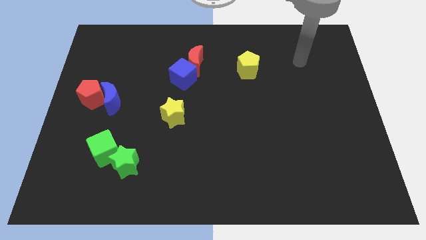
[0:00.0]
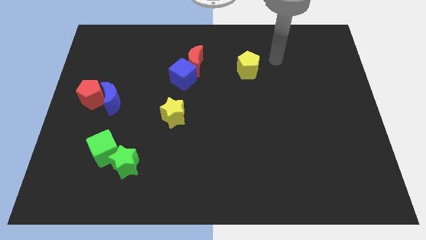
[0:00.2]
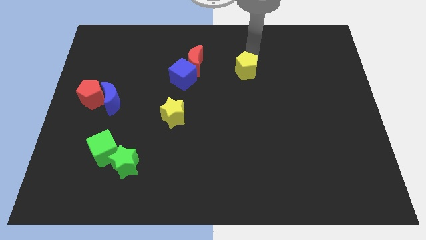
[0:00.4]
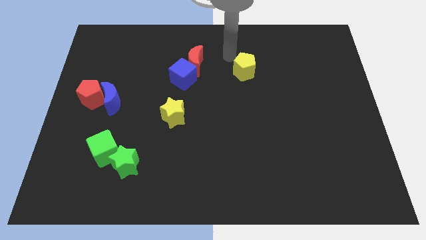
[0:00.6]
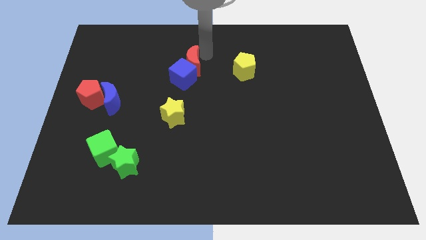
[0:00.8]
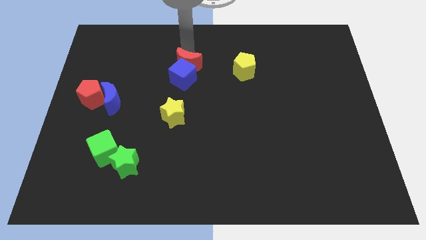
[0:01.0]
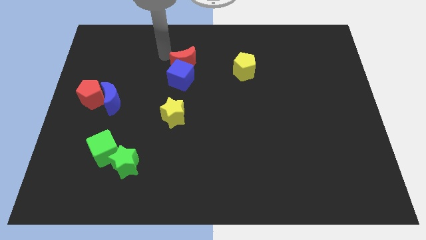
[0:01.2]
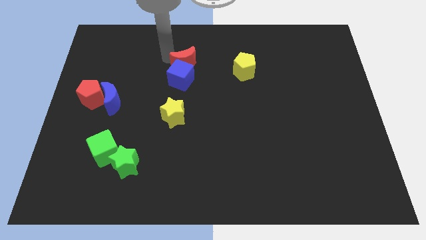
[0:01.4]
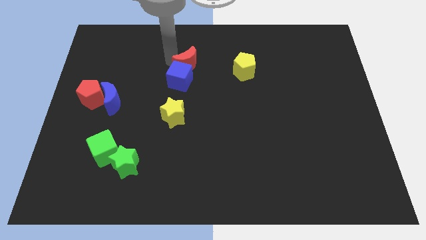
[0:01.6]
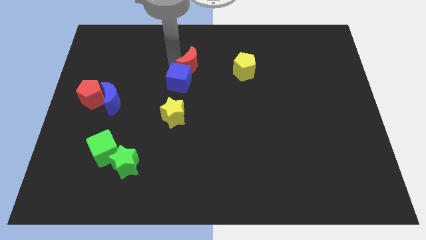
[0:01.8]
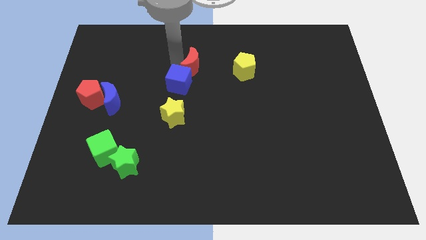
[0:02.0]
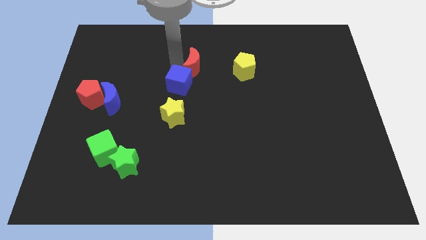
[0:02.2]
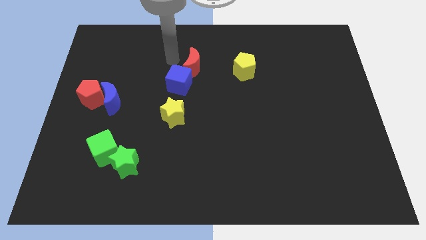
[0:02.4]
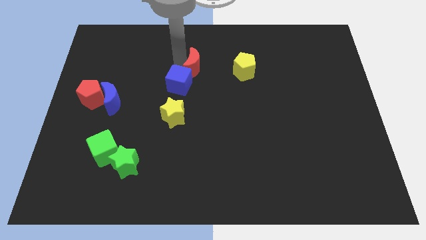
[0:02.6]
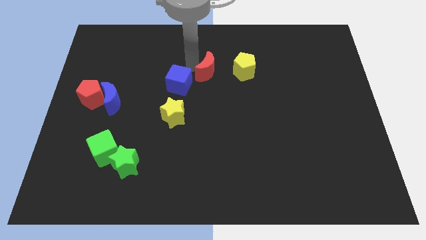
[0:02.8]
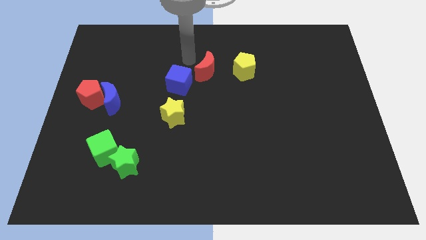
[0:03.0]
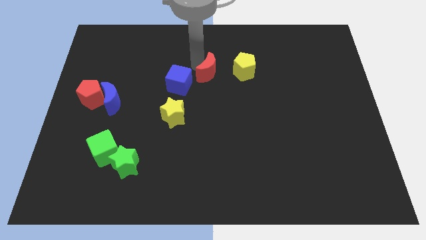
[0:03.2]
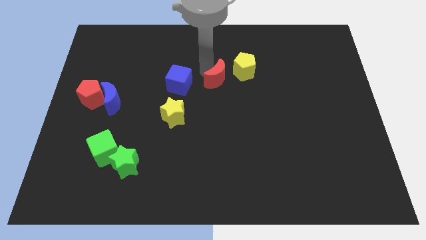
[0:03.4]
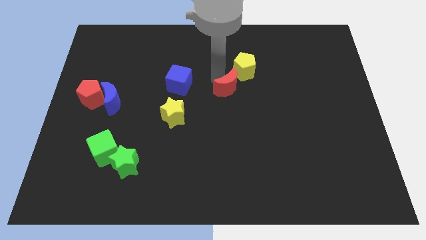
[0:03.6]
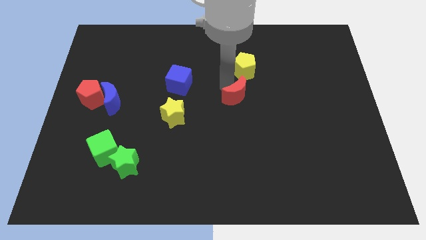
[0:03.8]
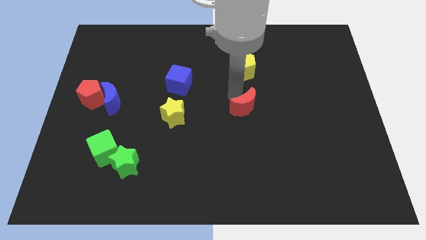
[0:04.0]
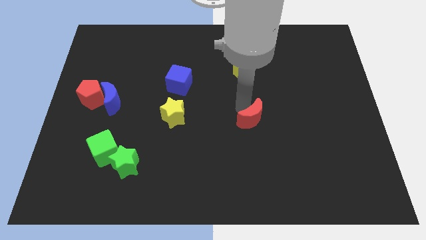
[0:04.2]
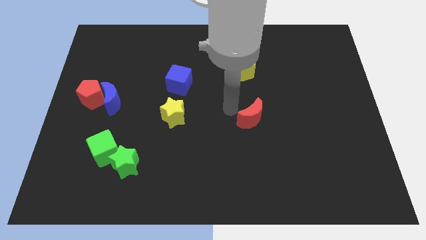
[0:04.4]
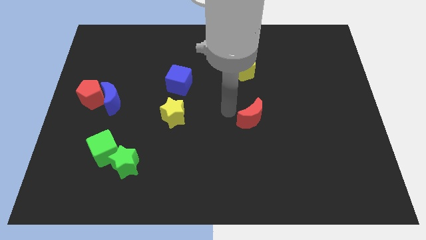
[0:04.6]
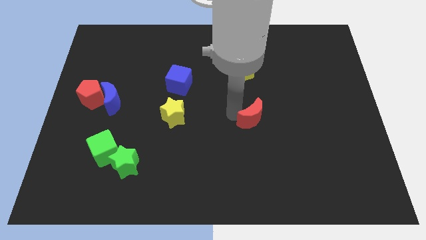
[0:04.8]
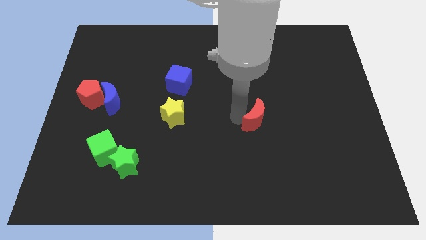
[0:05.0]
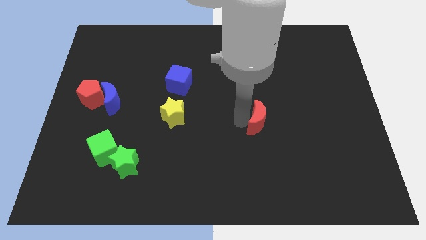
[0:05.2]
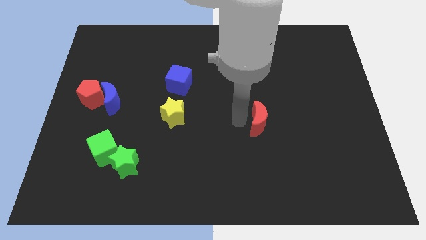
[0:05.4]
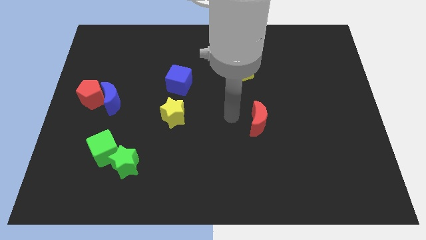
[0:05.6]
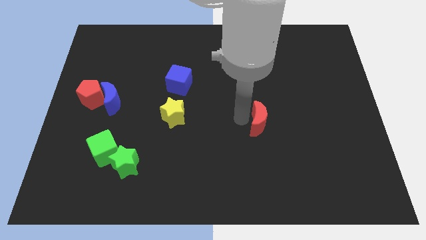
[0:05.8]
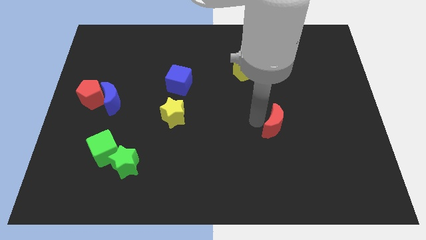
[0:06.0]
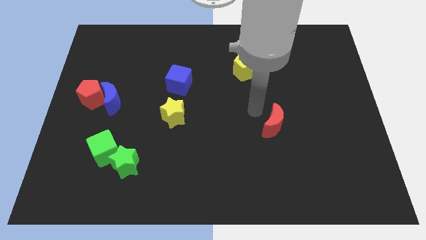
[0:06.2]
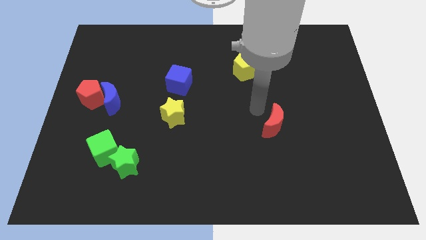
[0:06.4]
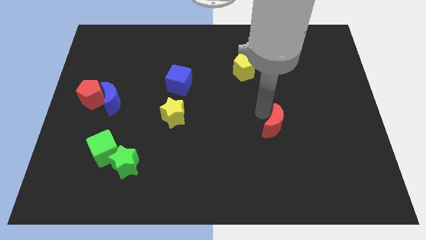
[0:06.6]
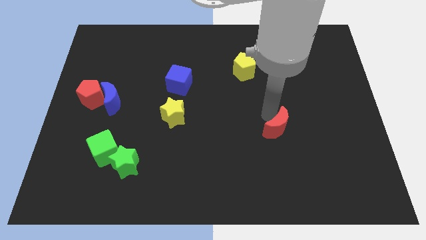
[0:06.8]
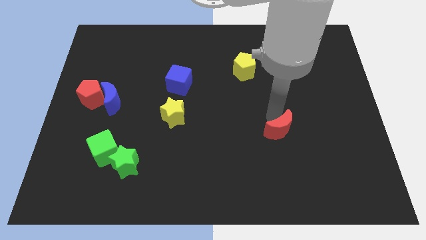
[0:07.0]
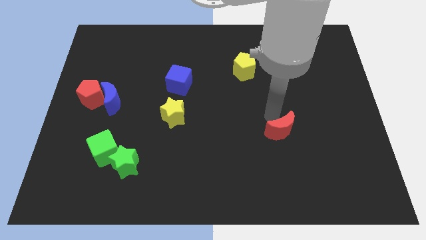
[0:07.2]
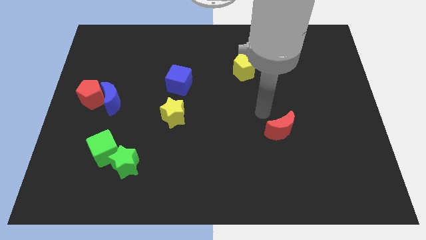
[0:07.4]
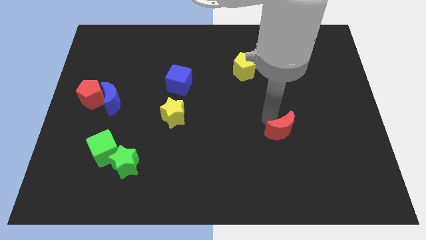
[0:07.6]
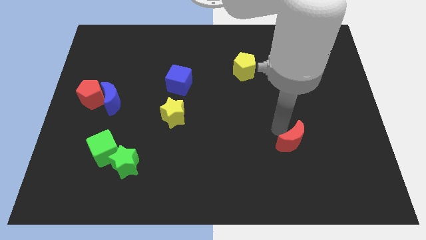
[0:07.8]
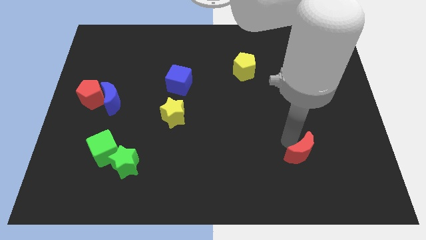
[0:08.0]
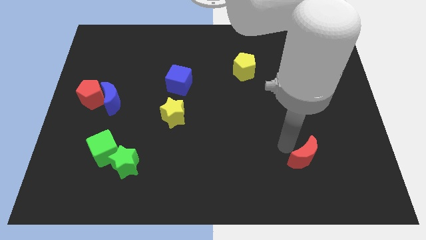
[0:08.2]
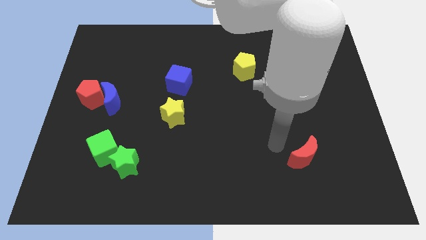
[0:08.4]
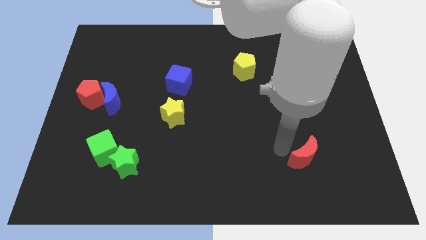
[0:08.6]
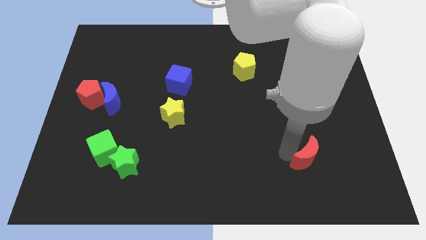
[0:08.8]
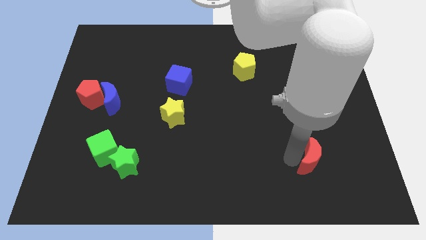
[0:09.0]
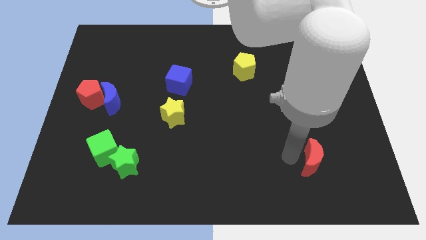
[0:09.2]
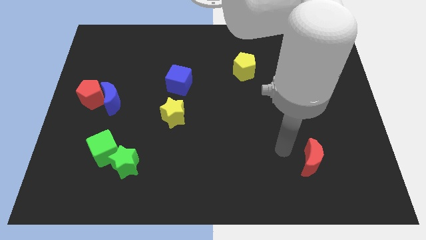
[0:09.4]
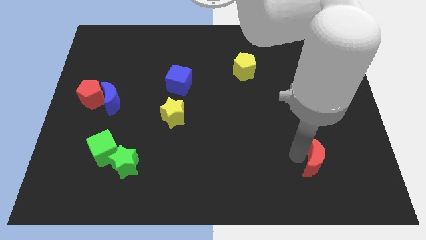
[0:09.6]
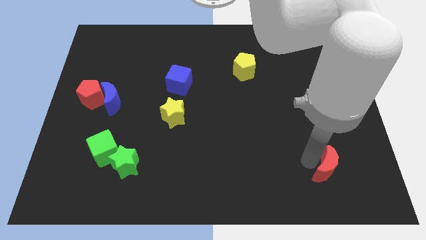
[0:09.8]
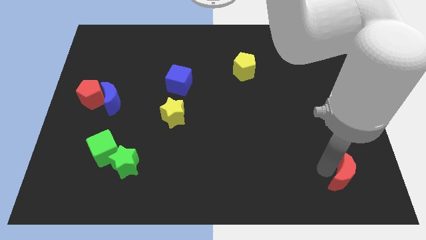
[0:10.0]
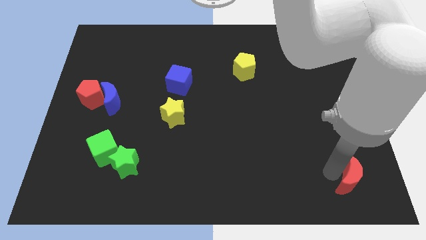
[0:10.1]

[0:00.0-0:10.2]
push the red moon to the bottom right of the board

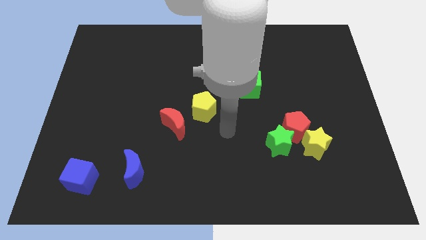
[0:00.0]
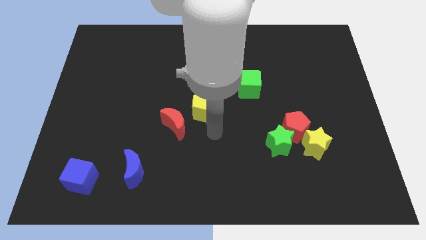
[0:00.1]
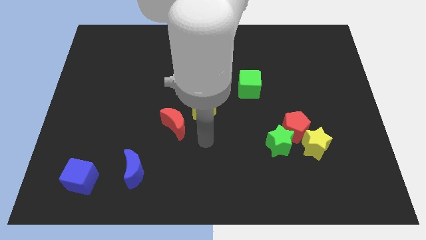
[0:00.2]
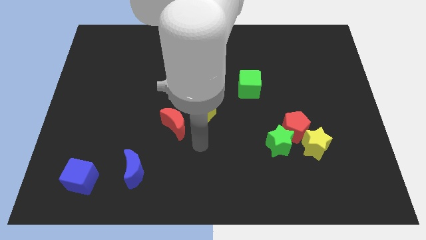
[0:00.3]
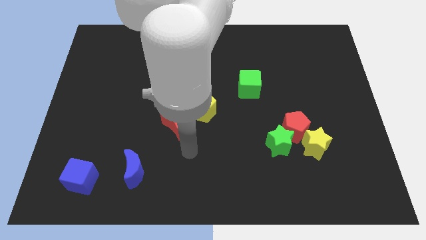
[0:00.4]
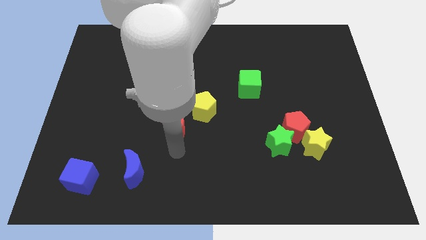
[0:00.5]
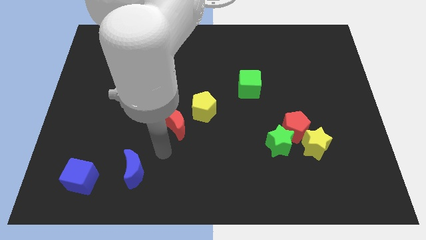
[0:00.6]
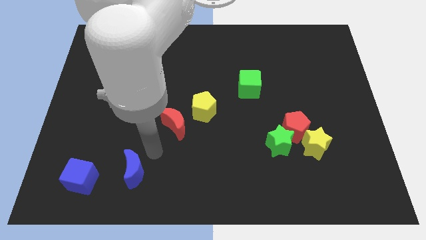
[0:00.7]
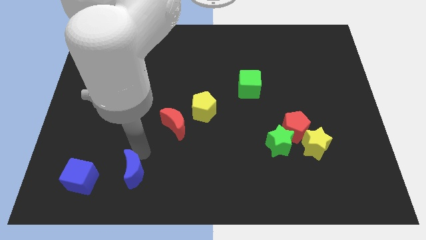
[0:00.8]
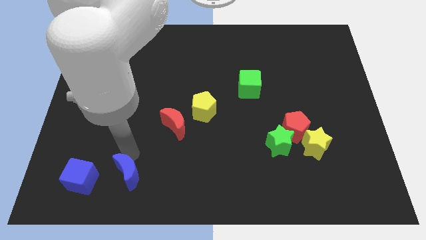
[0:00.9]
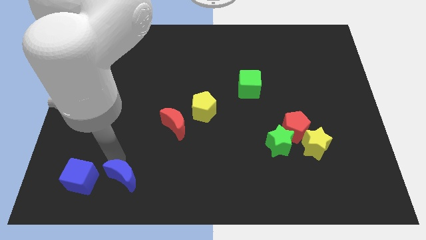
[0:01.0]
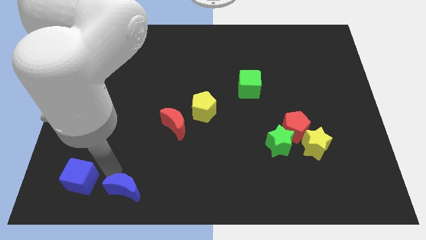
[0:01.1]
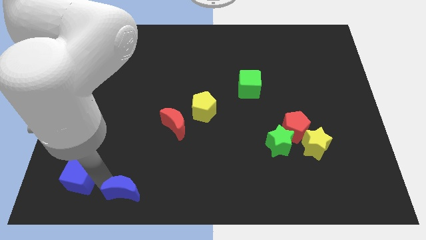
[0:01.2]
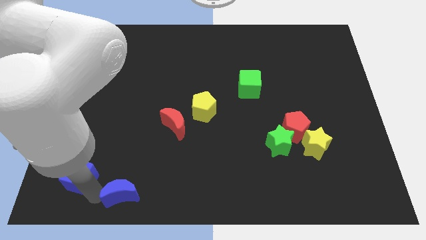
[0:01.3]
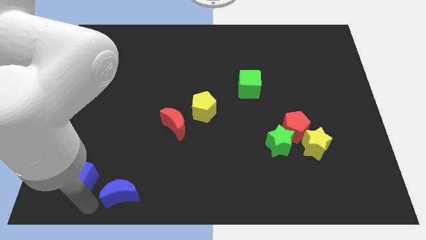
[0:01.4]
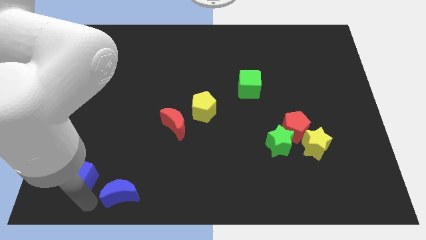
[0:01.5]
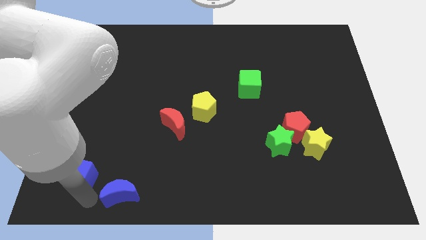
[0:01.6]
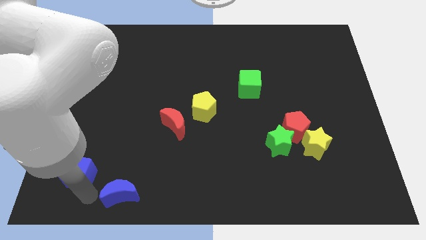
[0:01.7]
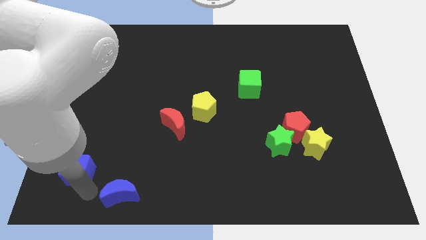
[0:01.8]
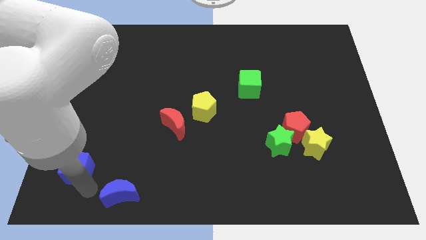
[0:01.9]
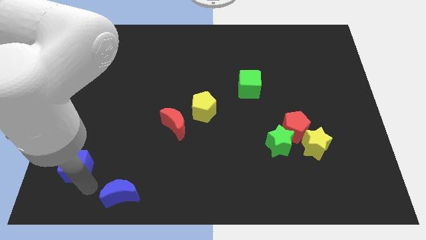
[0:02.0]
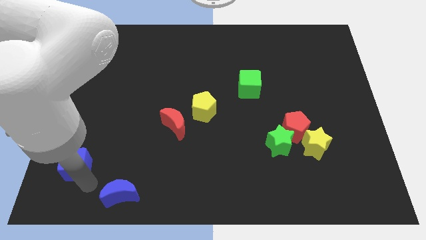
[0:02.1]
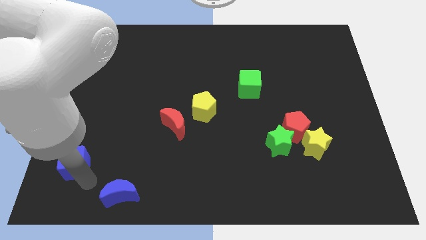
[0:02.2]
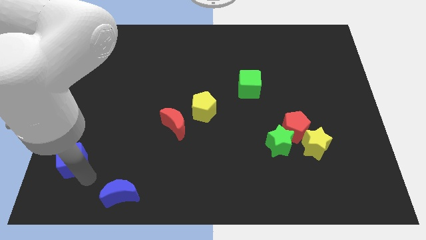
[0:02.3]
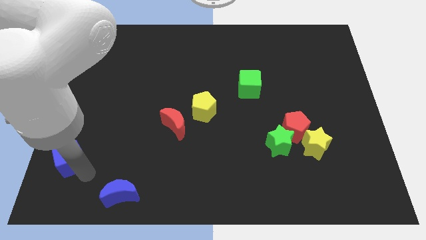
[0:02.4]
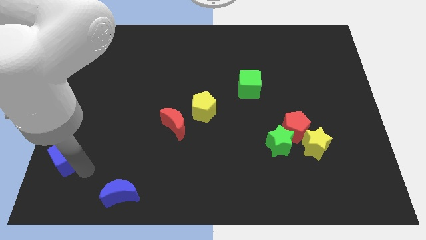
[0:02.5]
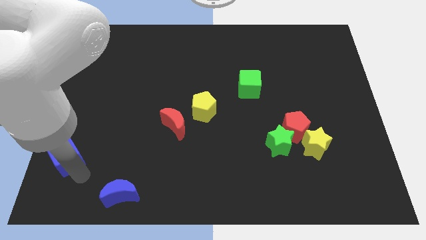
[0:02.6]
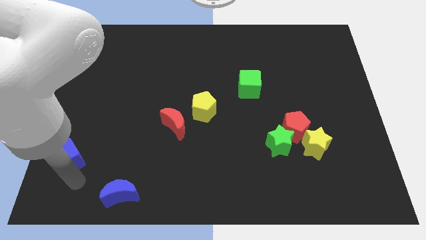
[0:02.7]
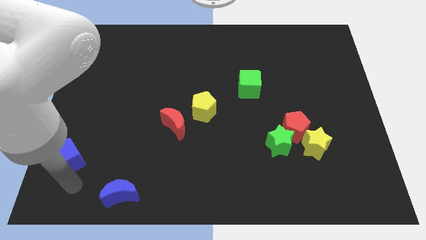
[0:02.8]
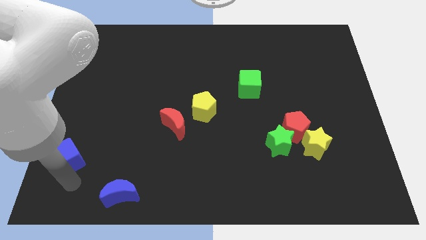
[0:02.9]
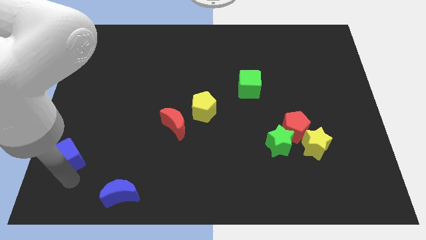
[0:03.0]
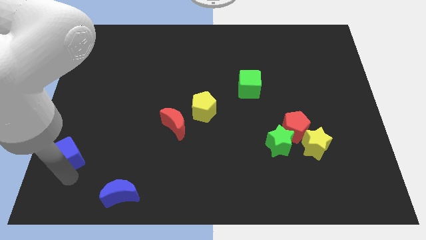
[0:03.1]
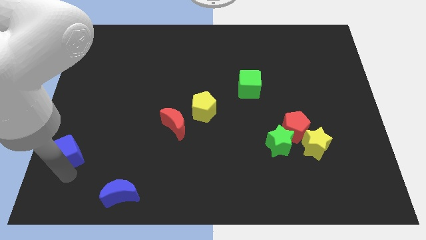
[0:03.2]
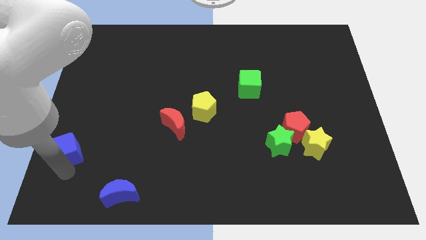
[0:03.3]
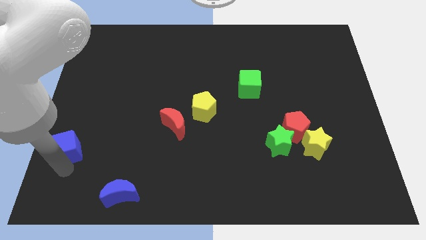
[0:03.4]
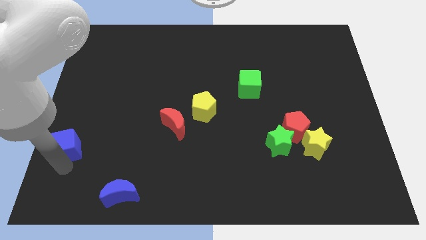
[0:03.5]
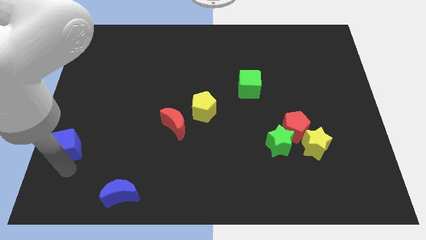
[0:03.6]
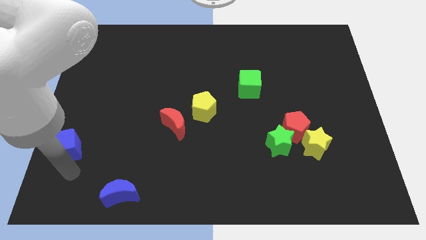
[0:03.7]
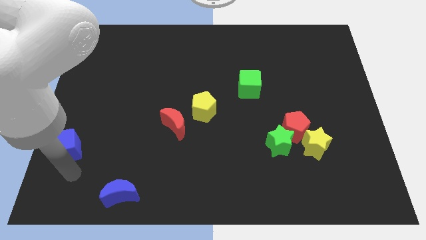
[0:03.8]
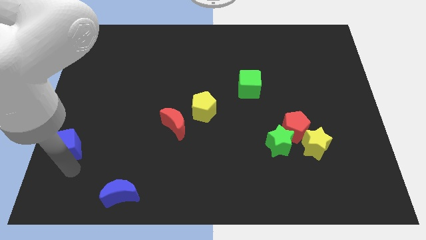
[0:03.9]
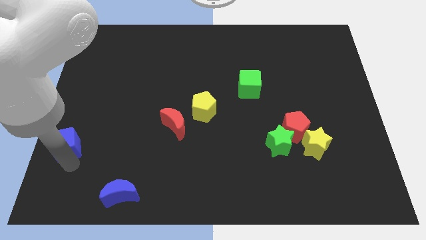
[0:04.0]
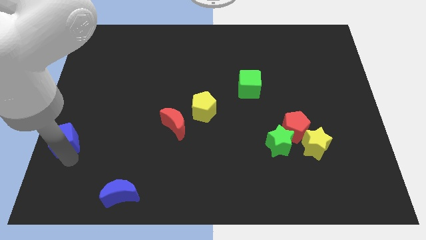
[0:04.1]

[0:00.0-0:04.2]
slide the blue cube to the center left
